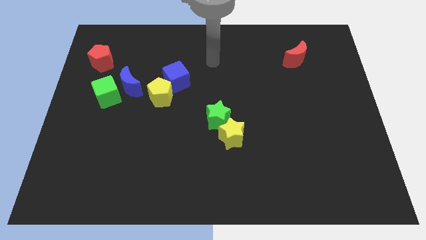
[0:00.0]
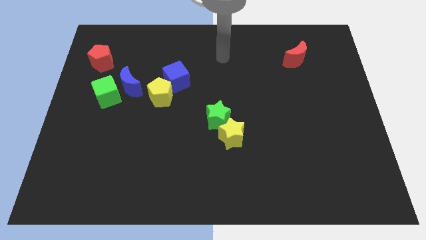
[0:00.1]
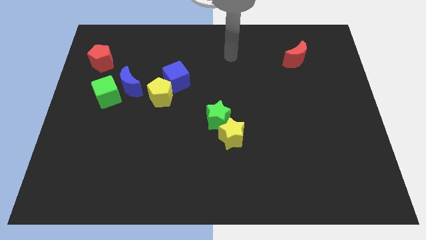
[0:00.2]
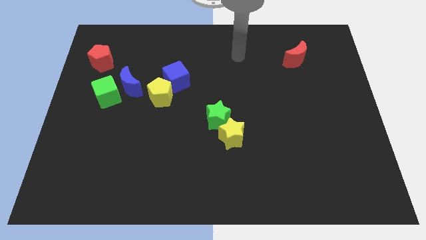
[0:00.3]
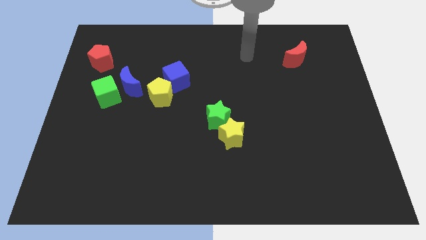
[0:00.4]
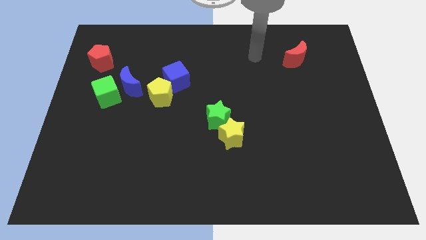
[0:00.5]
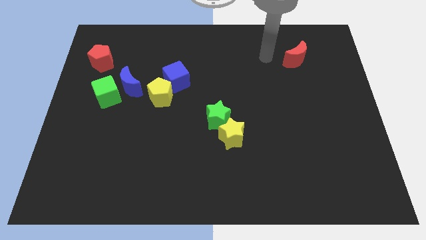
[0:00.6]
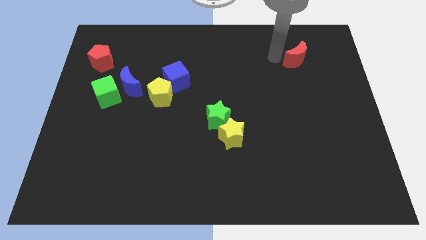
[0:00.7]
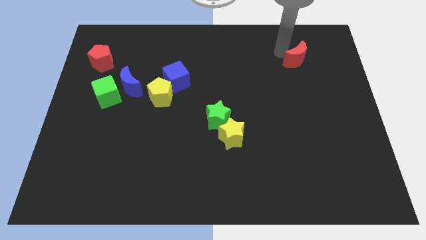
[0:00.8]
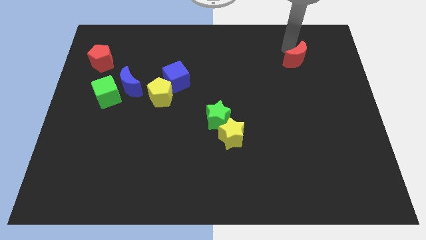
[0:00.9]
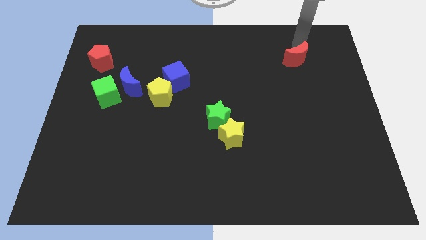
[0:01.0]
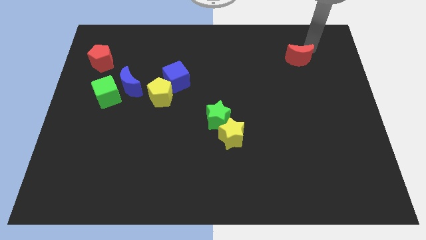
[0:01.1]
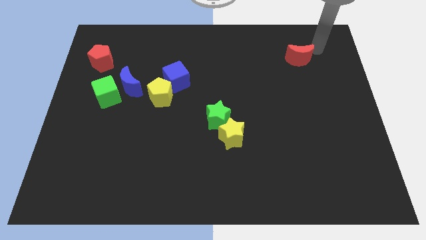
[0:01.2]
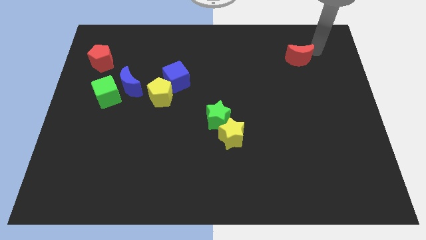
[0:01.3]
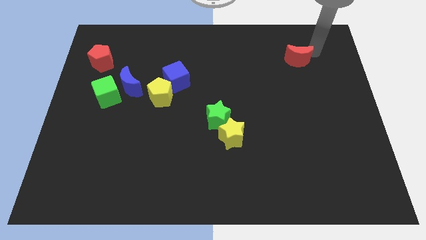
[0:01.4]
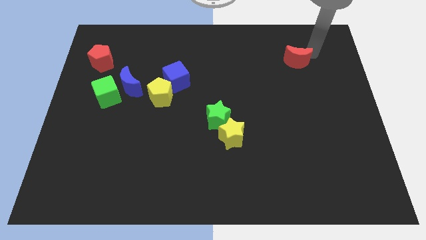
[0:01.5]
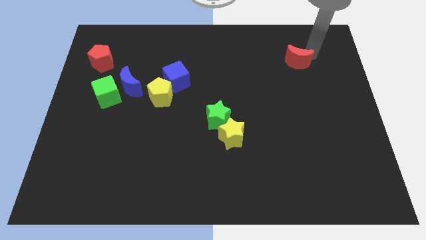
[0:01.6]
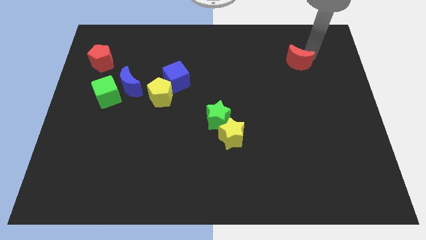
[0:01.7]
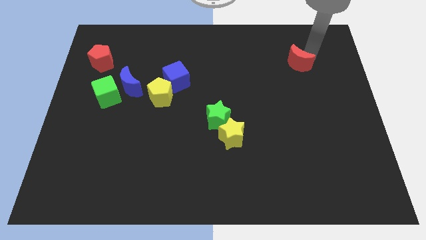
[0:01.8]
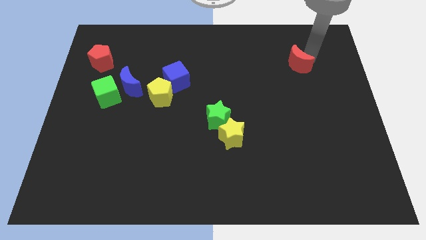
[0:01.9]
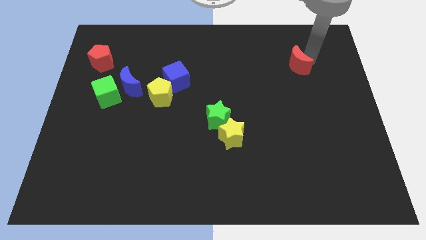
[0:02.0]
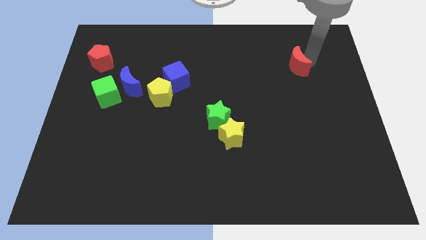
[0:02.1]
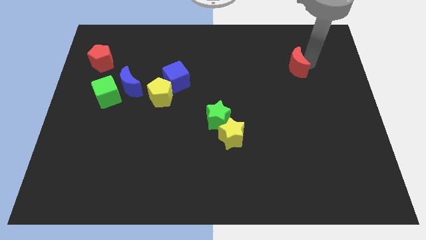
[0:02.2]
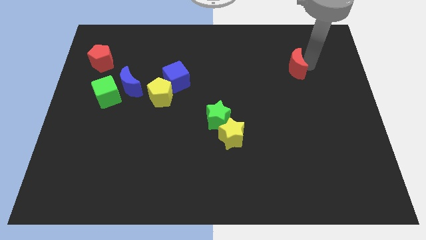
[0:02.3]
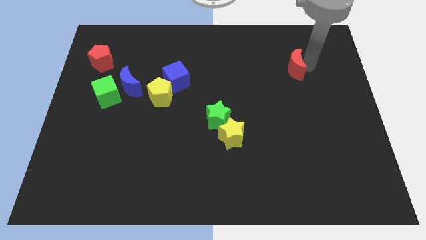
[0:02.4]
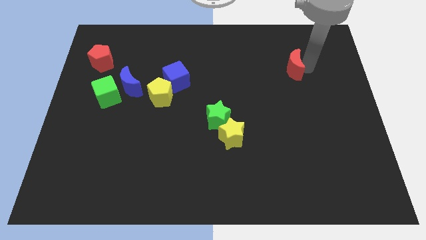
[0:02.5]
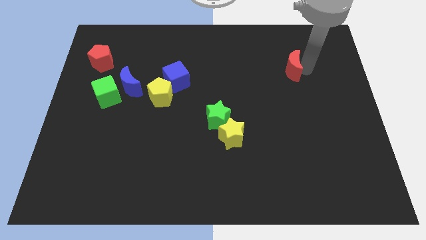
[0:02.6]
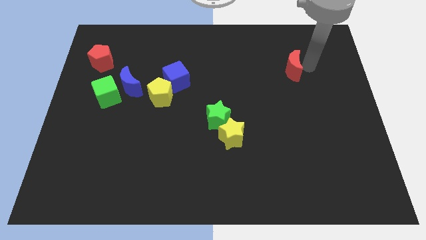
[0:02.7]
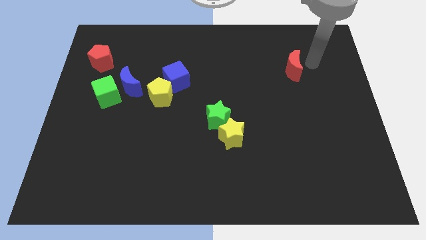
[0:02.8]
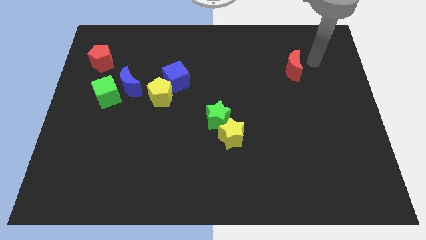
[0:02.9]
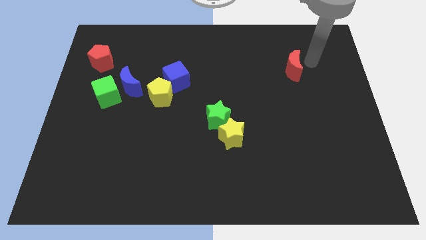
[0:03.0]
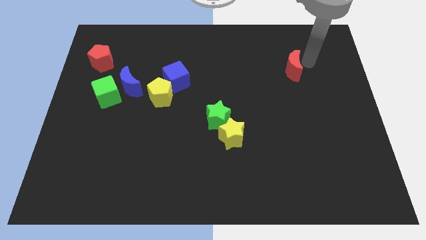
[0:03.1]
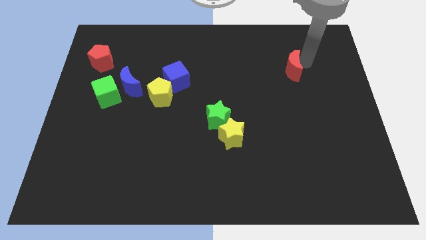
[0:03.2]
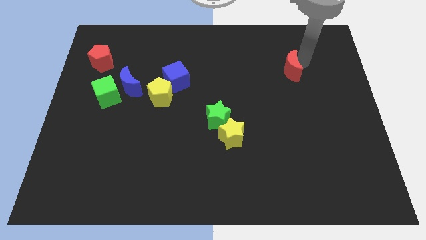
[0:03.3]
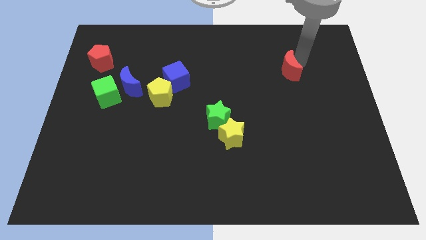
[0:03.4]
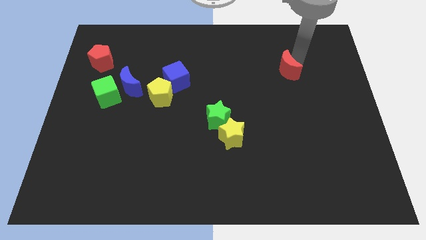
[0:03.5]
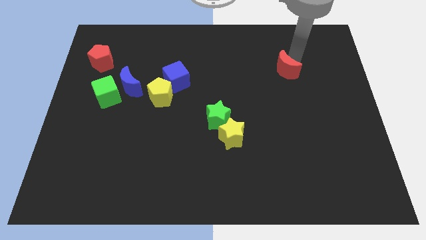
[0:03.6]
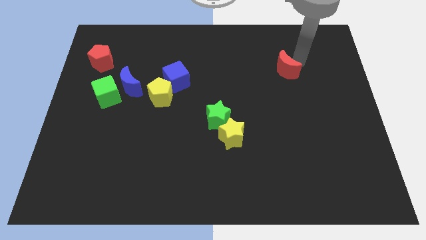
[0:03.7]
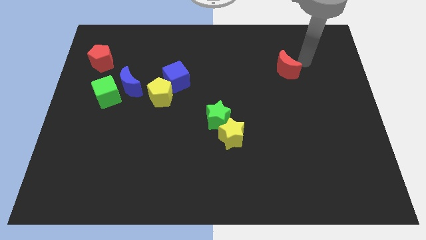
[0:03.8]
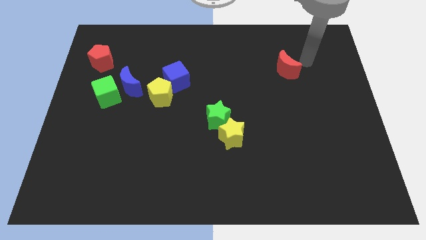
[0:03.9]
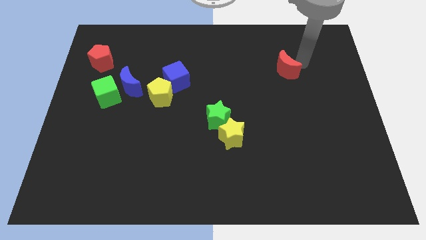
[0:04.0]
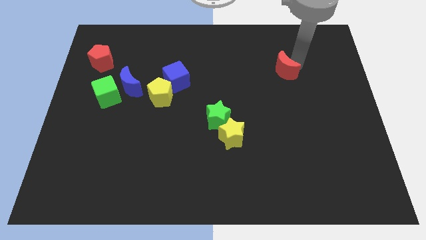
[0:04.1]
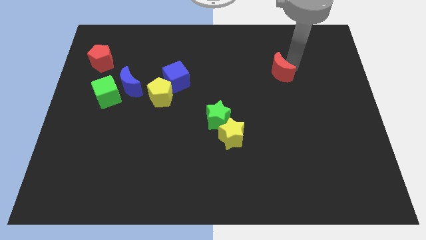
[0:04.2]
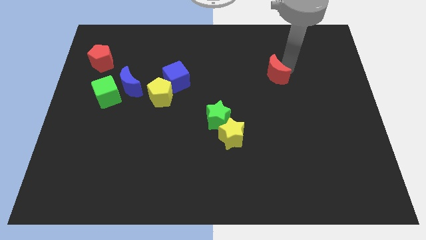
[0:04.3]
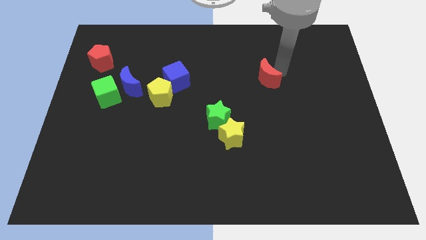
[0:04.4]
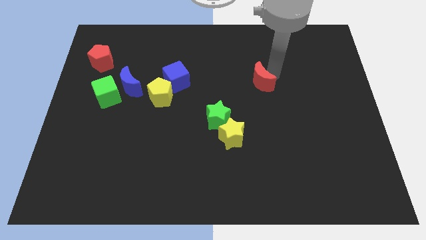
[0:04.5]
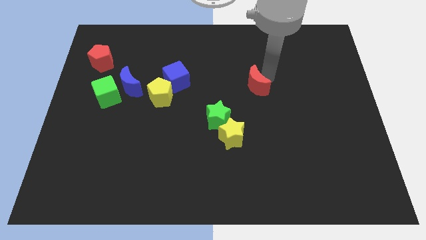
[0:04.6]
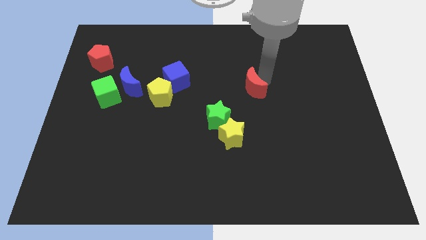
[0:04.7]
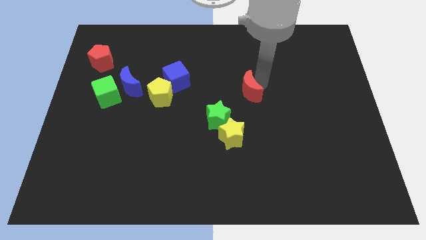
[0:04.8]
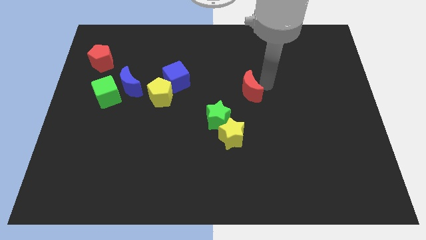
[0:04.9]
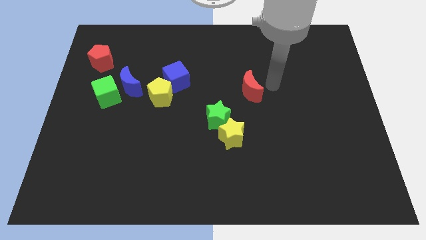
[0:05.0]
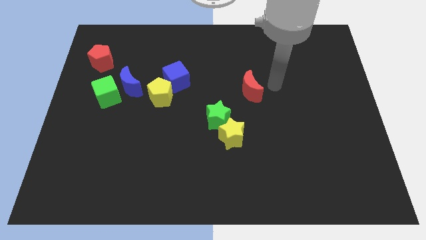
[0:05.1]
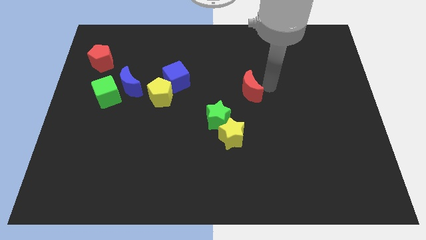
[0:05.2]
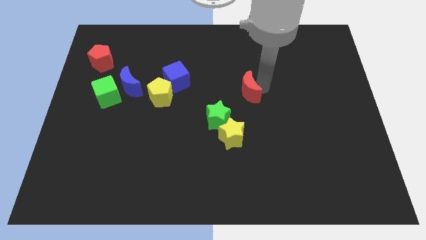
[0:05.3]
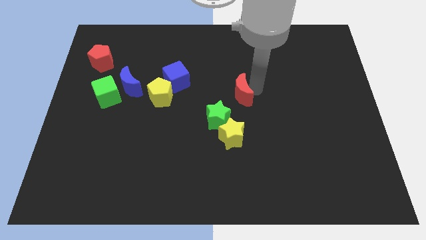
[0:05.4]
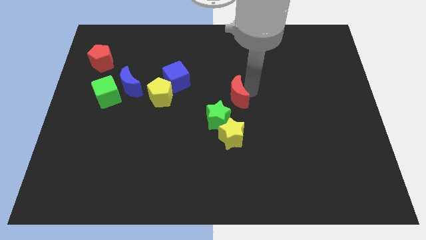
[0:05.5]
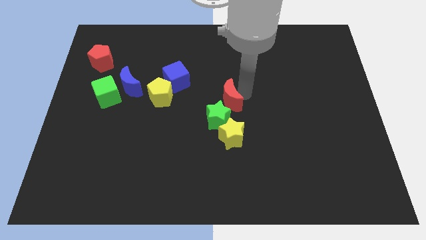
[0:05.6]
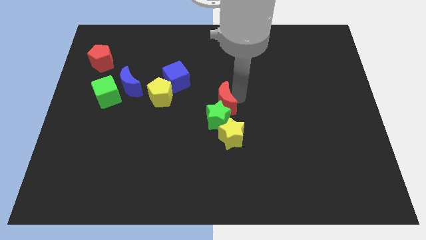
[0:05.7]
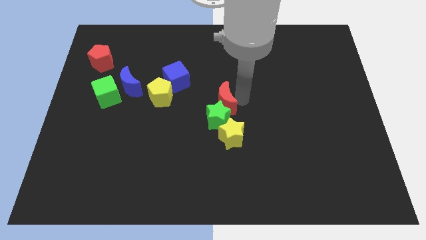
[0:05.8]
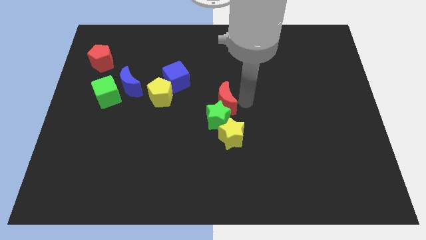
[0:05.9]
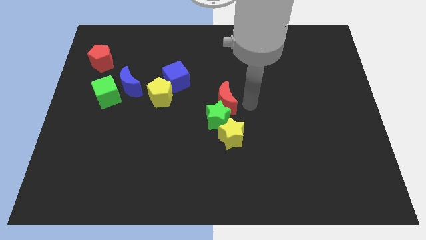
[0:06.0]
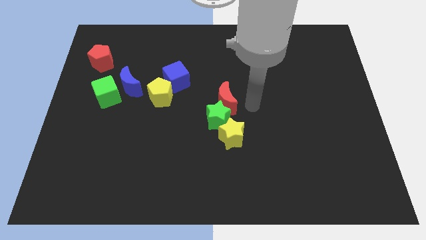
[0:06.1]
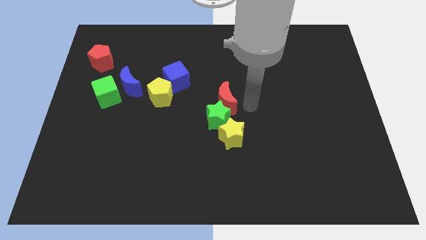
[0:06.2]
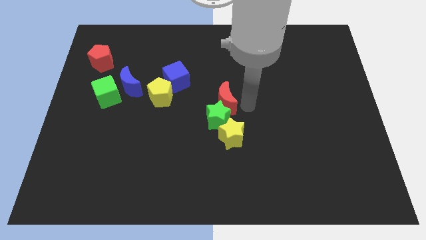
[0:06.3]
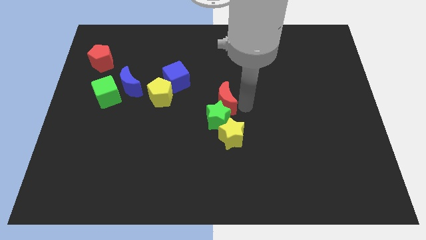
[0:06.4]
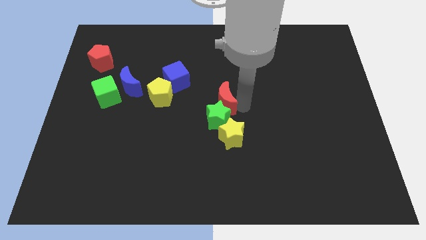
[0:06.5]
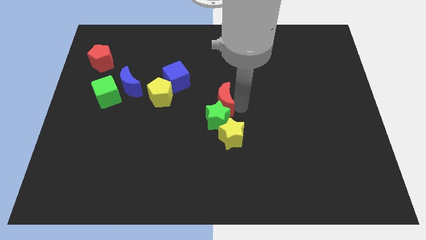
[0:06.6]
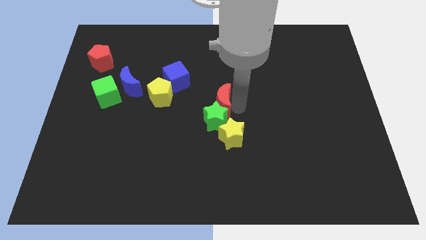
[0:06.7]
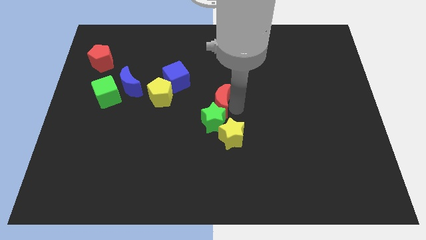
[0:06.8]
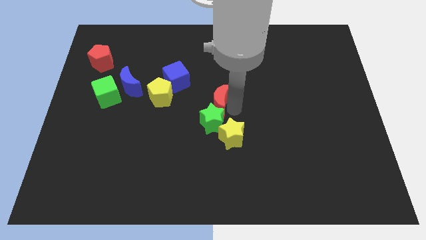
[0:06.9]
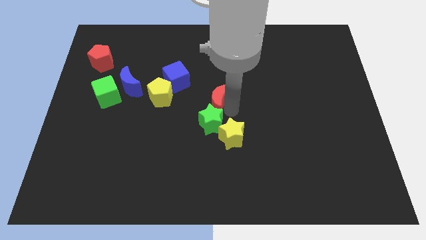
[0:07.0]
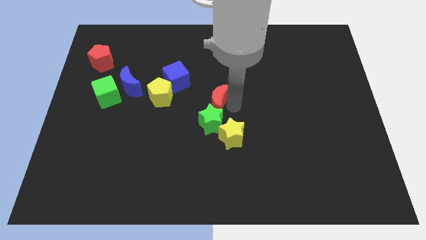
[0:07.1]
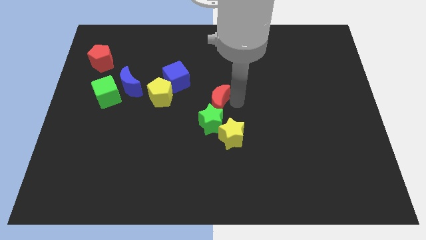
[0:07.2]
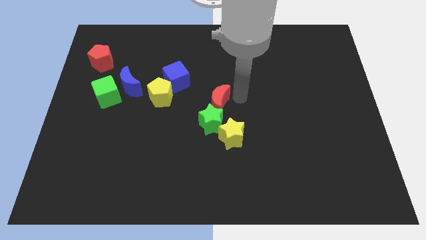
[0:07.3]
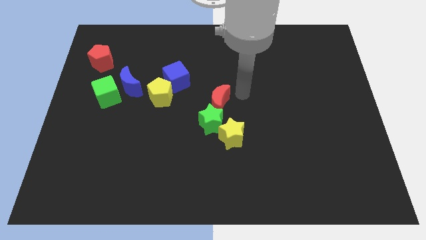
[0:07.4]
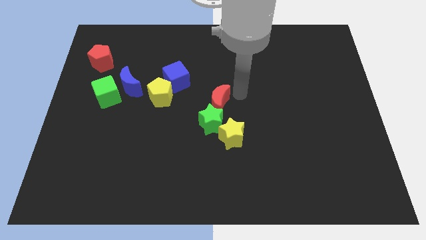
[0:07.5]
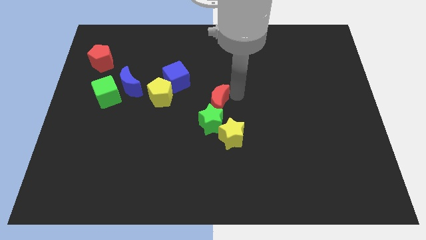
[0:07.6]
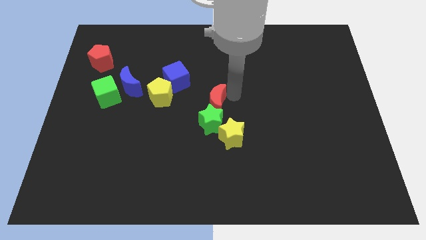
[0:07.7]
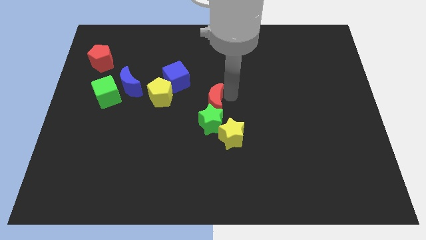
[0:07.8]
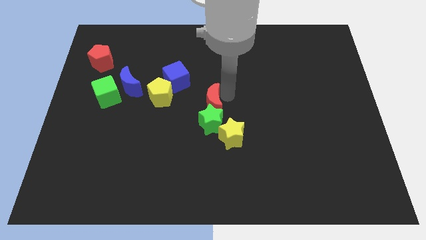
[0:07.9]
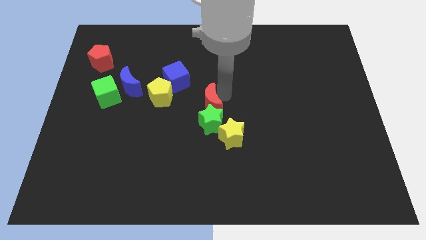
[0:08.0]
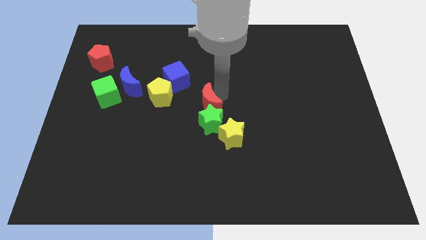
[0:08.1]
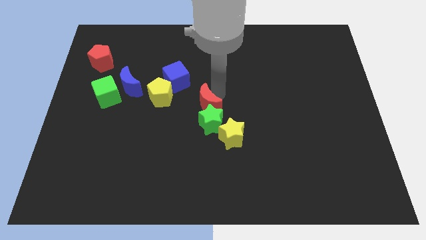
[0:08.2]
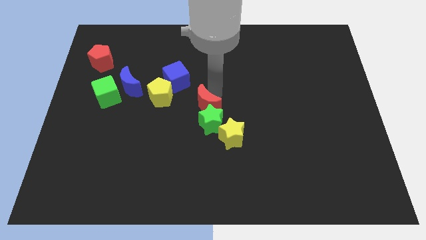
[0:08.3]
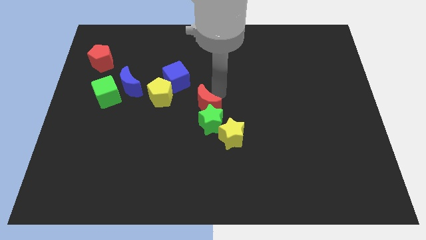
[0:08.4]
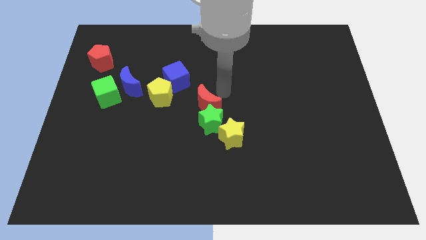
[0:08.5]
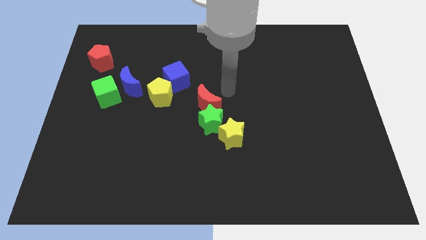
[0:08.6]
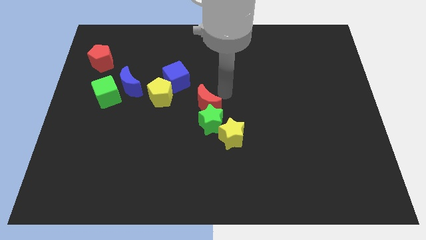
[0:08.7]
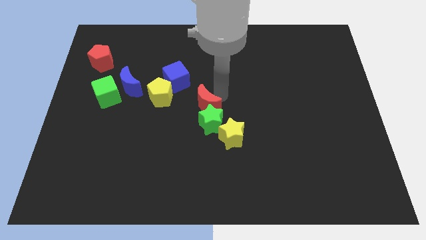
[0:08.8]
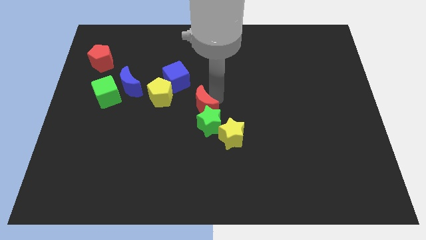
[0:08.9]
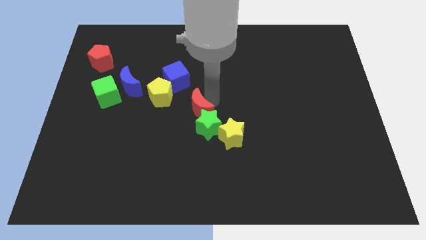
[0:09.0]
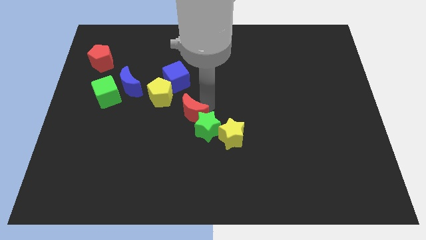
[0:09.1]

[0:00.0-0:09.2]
push the red moon to the bottom side of the blue cube
